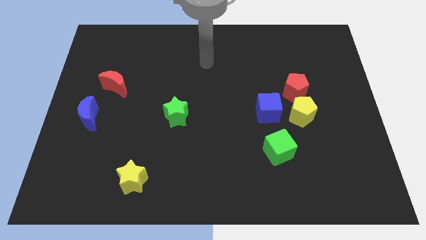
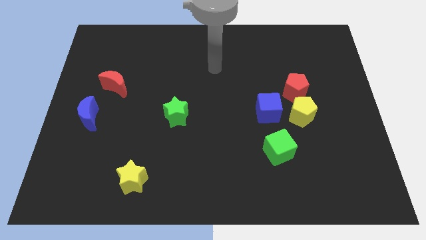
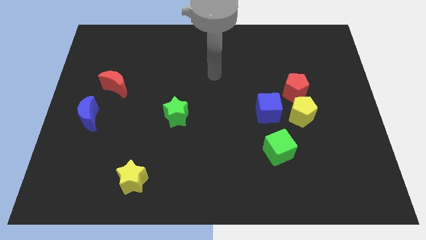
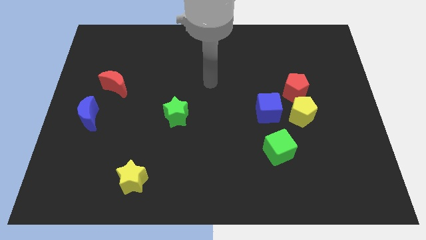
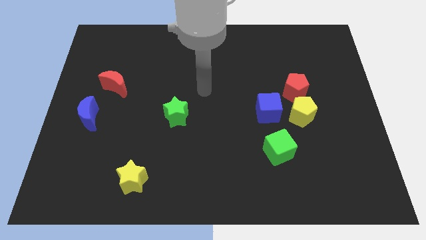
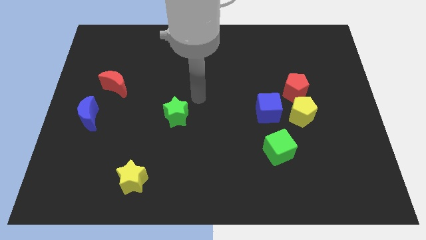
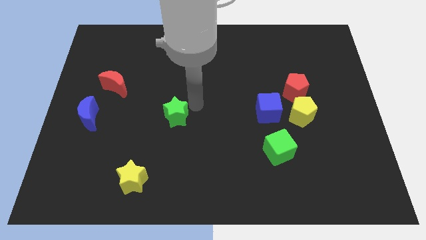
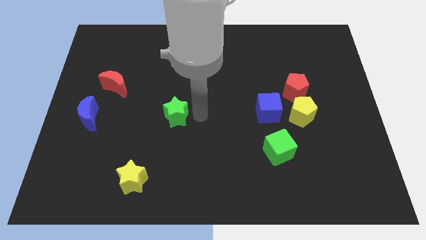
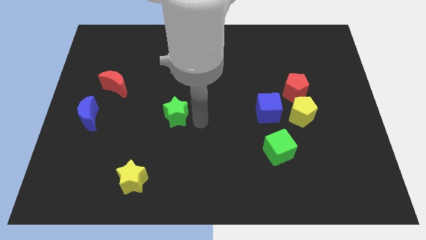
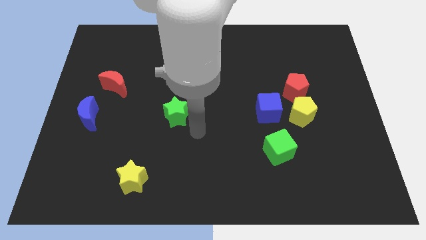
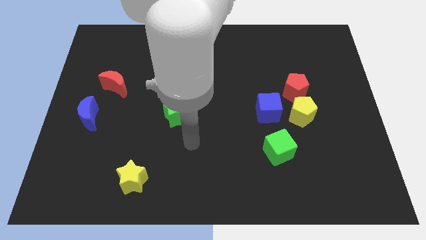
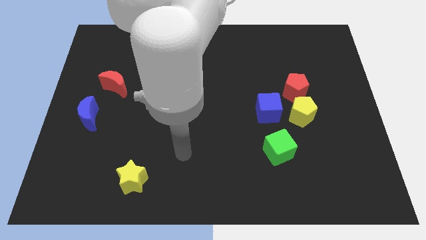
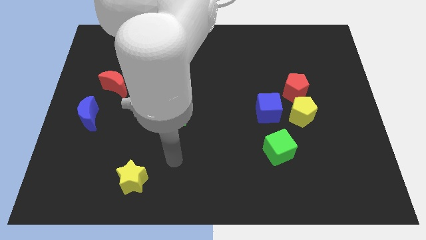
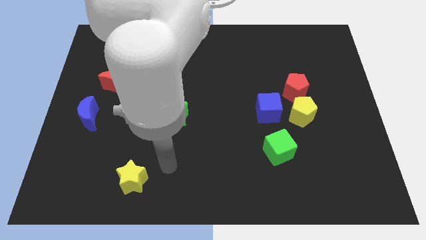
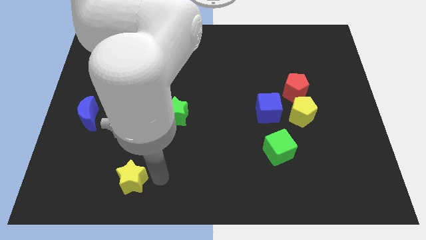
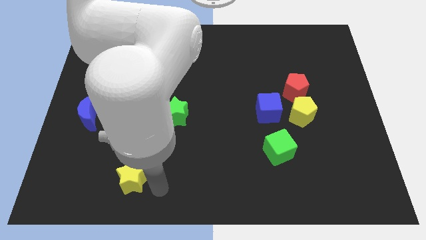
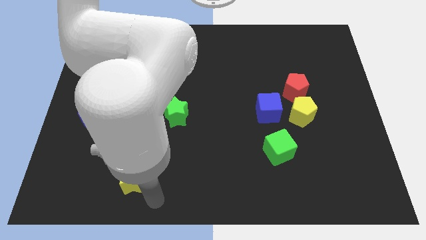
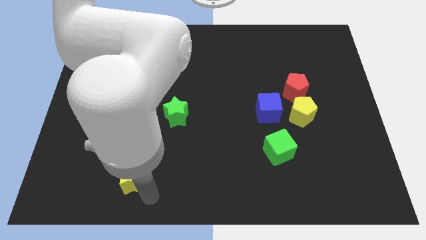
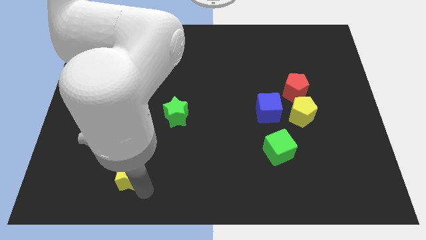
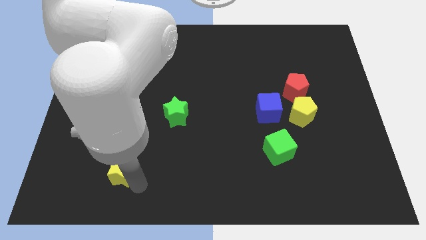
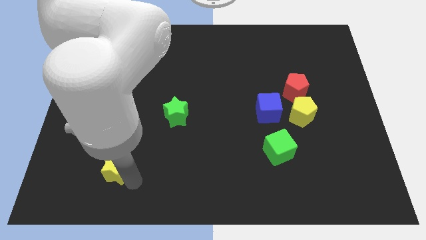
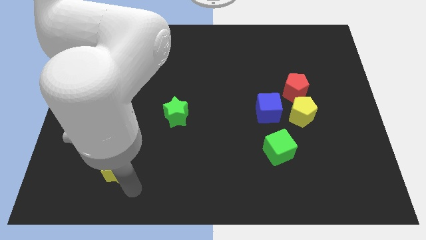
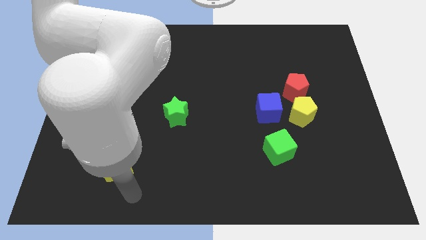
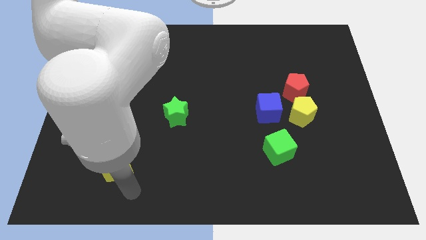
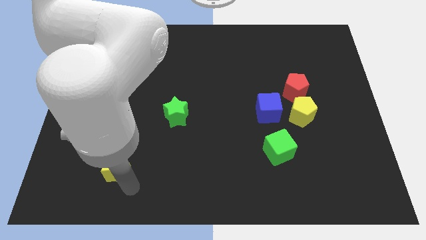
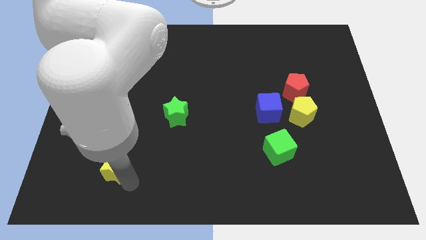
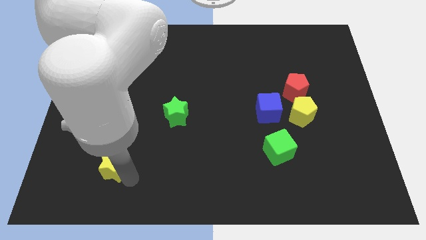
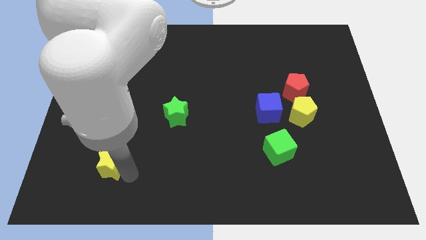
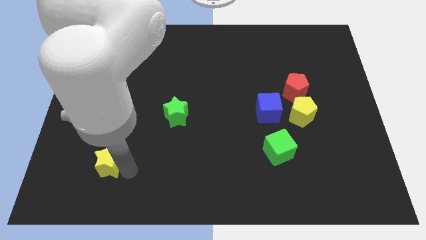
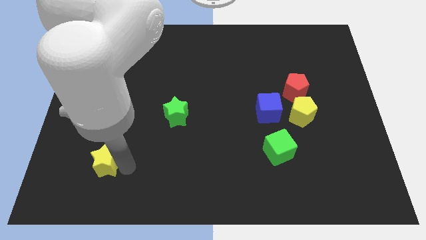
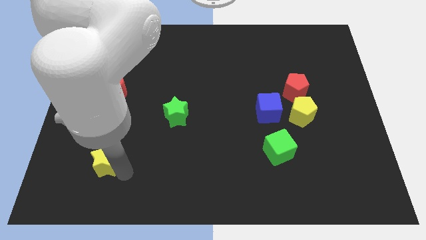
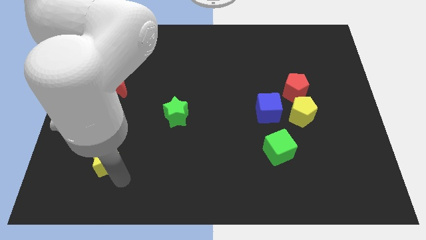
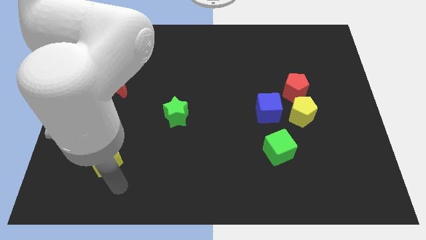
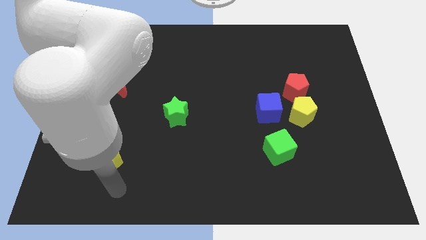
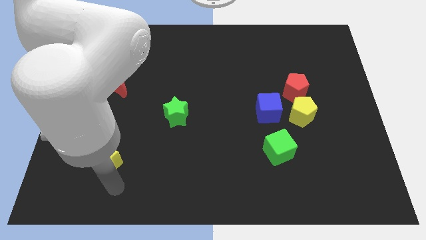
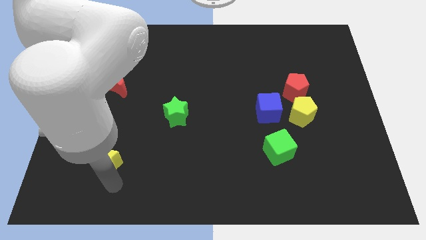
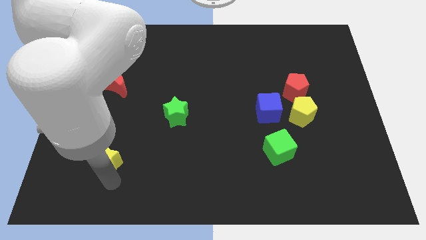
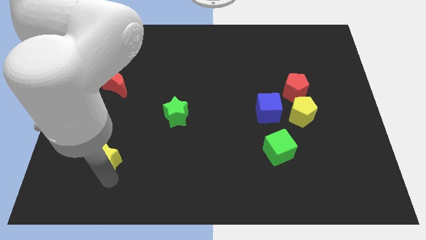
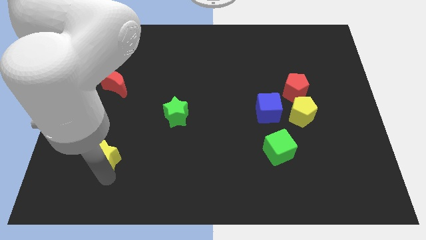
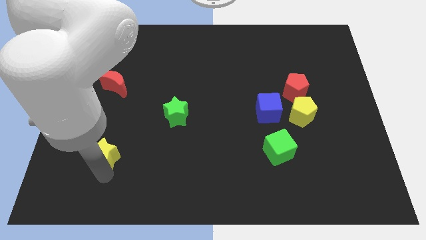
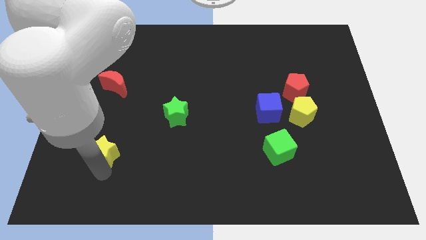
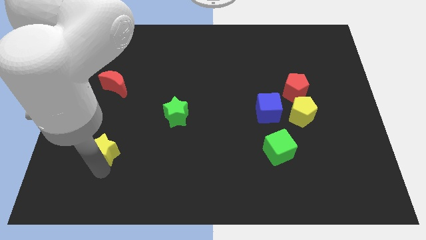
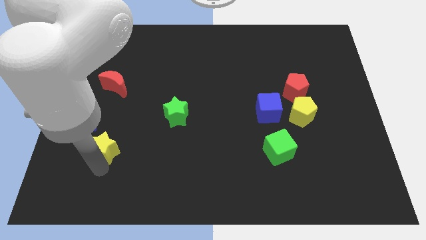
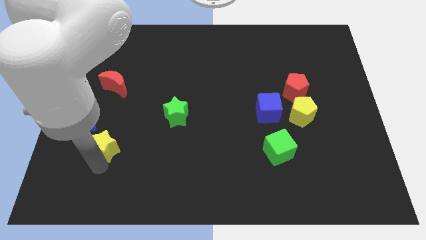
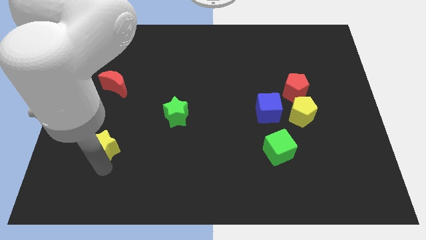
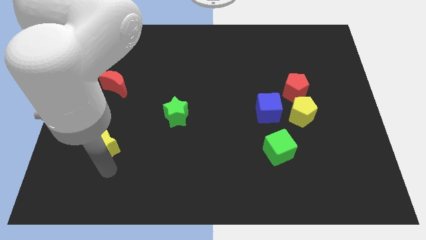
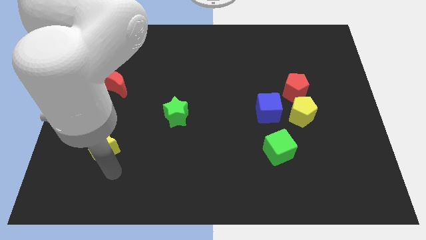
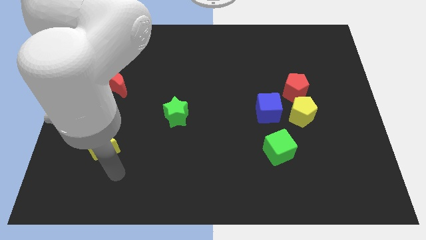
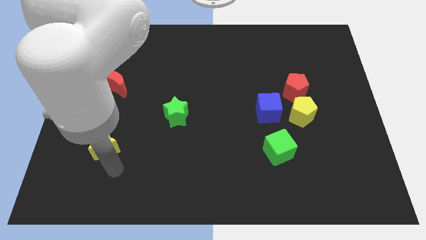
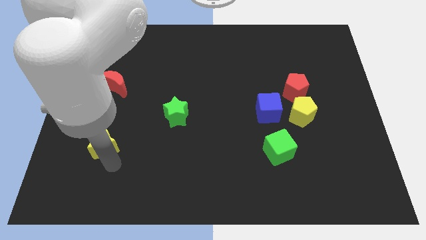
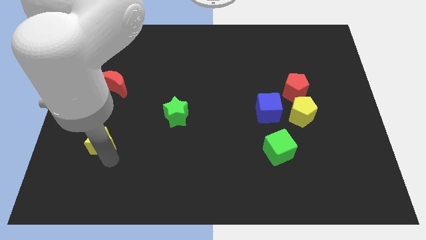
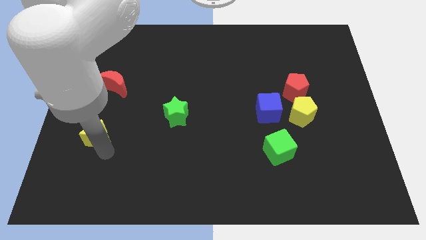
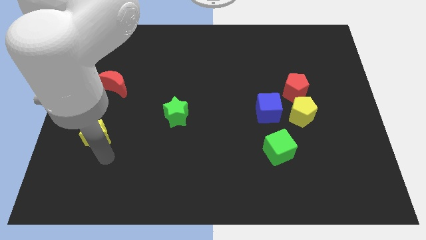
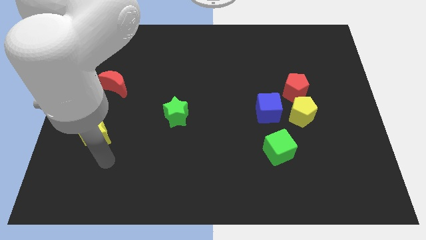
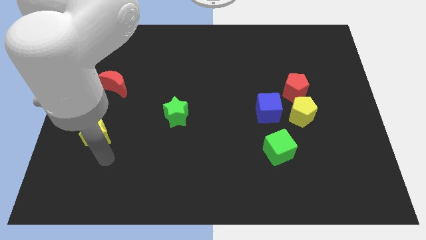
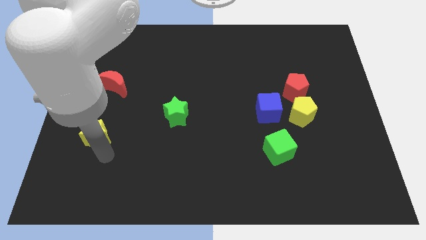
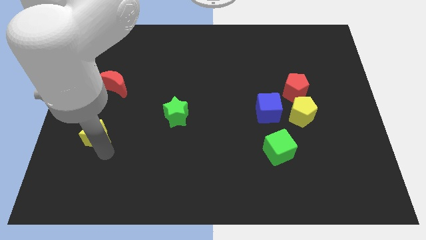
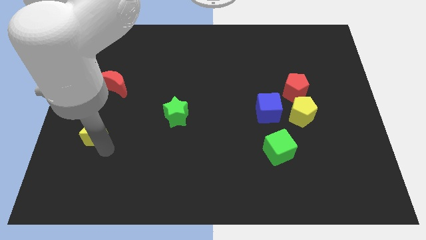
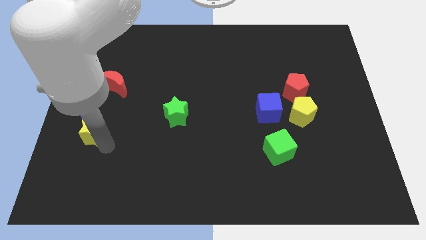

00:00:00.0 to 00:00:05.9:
slide the yellow star towards the blue moon
